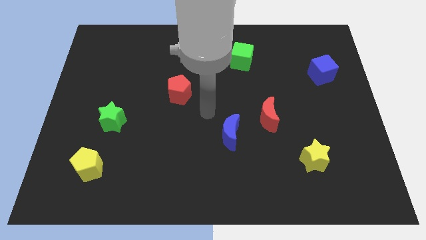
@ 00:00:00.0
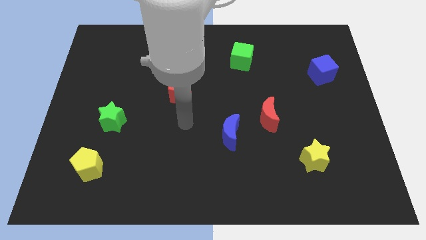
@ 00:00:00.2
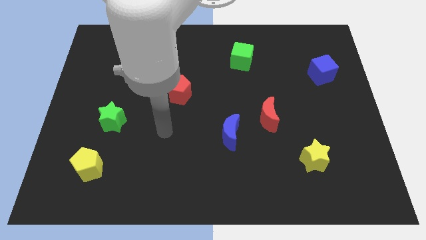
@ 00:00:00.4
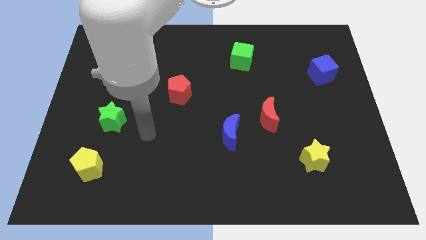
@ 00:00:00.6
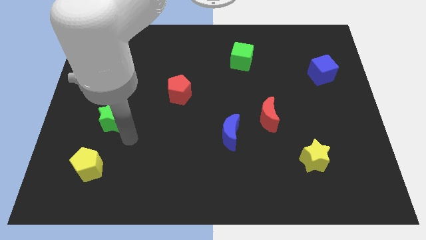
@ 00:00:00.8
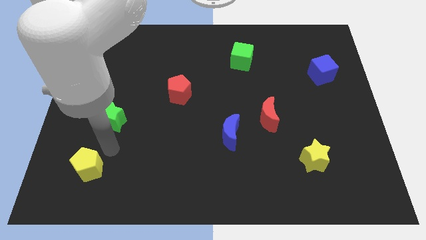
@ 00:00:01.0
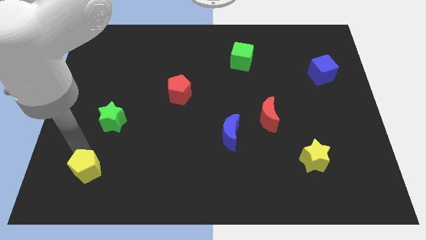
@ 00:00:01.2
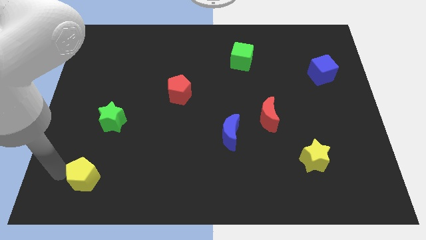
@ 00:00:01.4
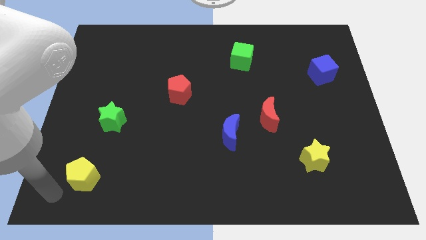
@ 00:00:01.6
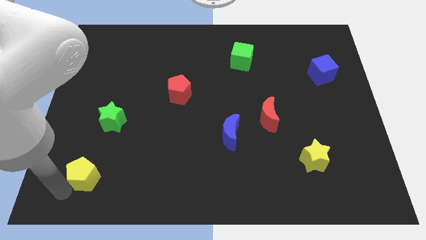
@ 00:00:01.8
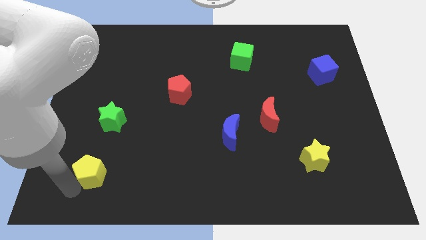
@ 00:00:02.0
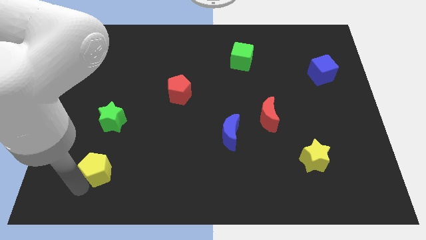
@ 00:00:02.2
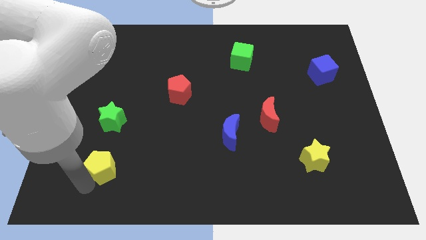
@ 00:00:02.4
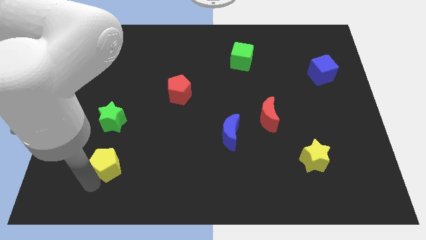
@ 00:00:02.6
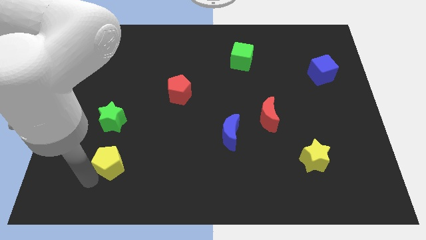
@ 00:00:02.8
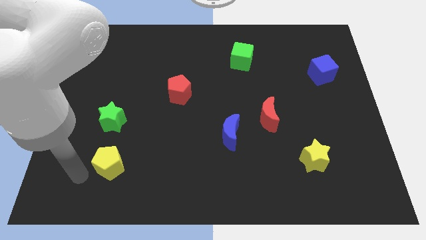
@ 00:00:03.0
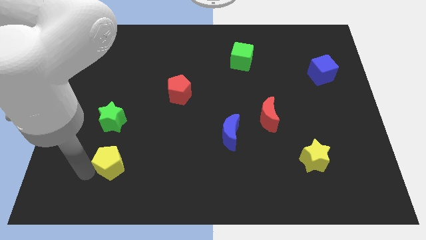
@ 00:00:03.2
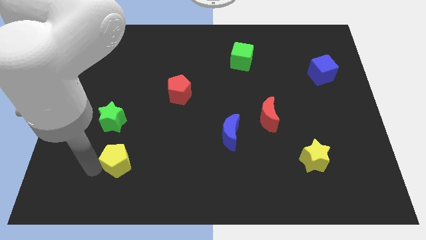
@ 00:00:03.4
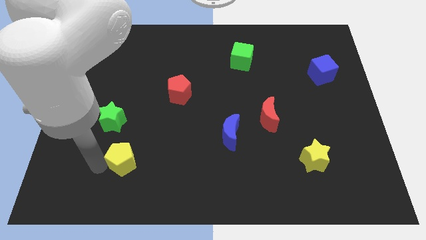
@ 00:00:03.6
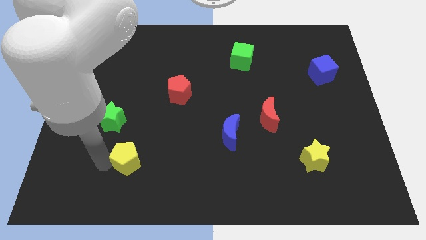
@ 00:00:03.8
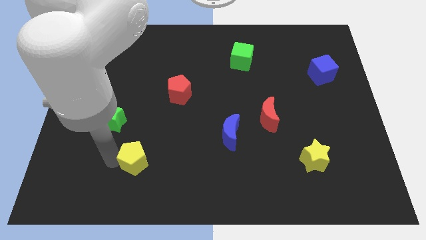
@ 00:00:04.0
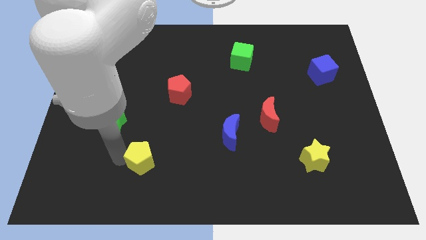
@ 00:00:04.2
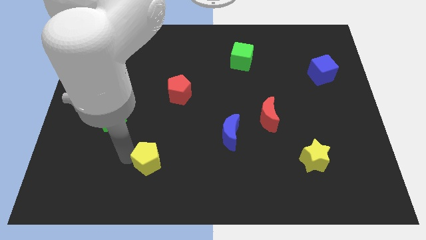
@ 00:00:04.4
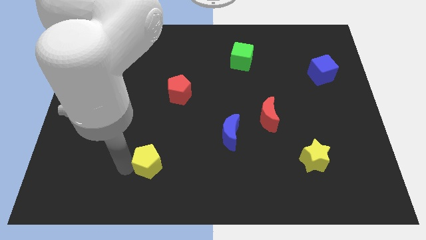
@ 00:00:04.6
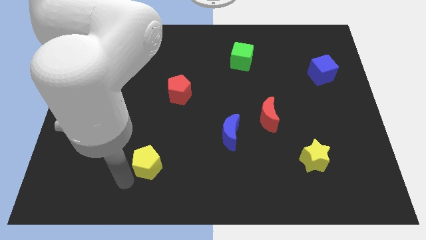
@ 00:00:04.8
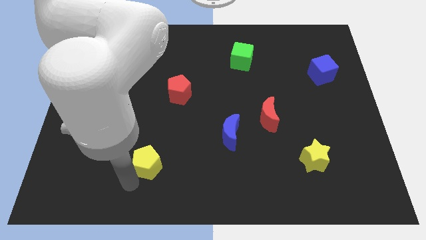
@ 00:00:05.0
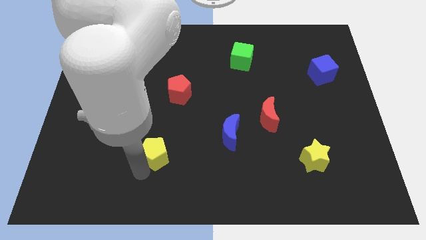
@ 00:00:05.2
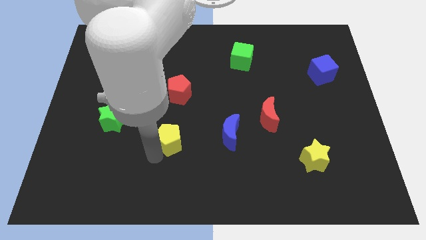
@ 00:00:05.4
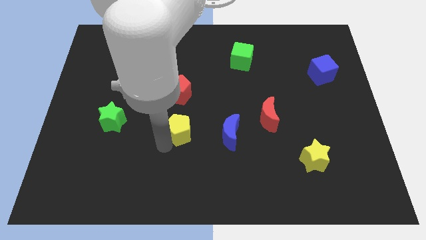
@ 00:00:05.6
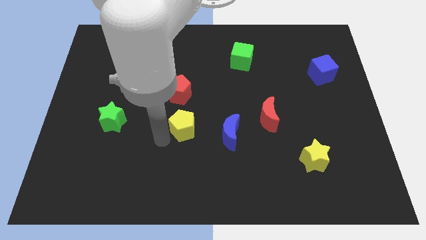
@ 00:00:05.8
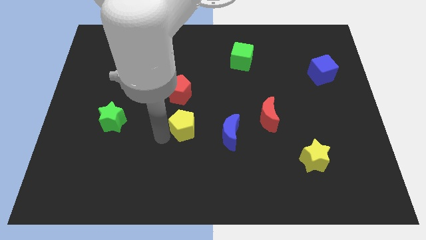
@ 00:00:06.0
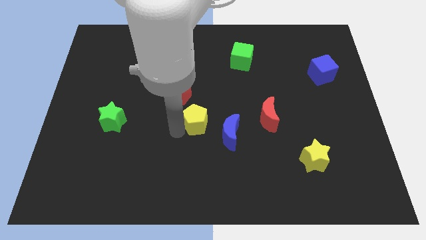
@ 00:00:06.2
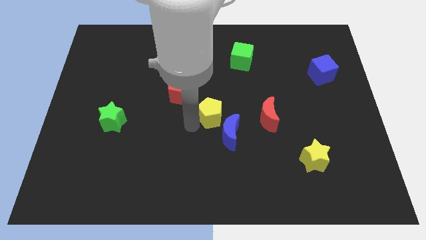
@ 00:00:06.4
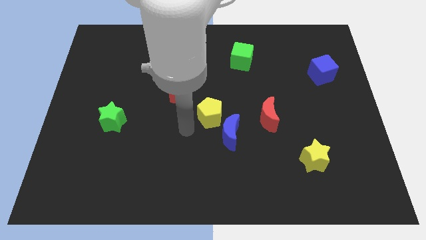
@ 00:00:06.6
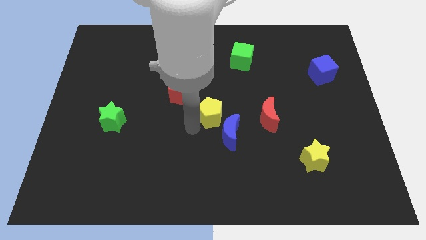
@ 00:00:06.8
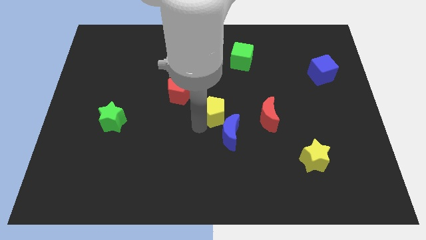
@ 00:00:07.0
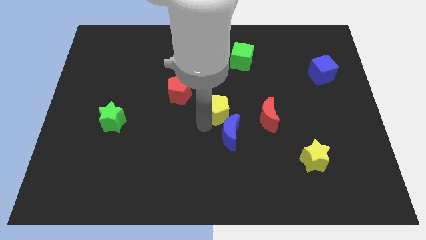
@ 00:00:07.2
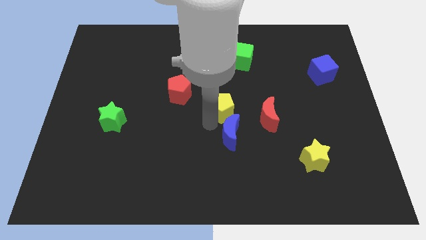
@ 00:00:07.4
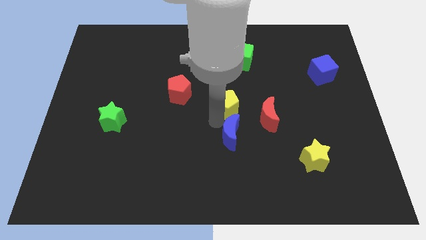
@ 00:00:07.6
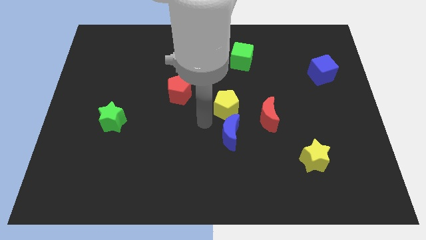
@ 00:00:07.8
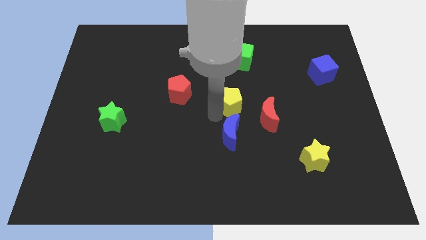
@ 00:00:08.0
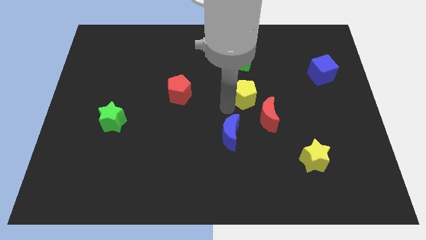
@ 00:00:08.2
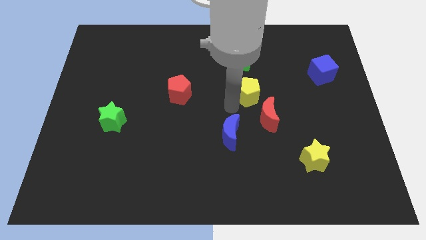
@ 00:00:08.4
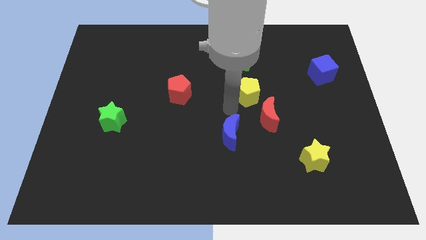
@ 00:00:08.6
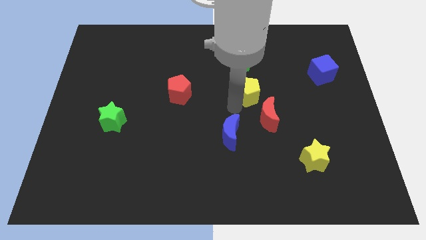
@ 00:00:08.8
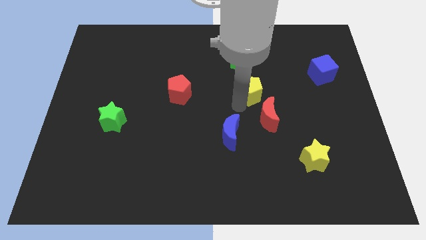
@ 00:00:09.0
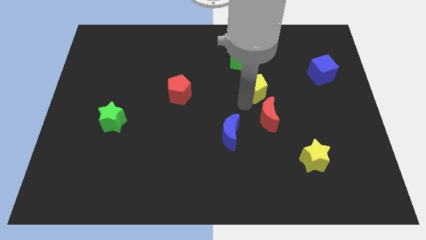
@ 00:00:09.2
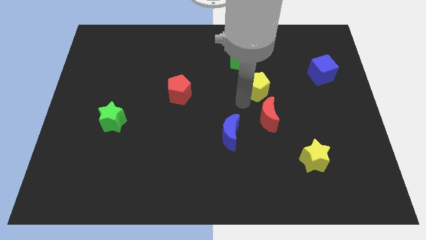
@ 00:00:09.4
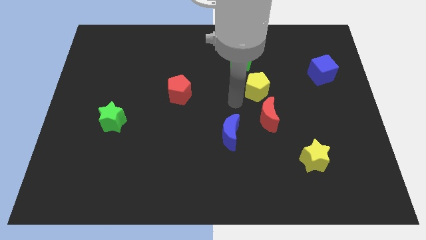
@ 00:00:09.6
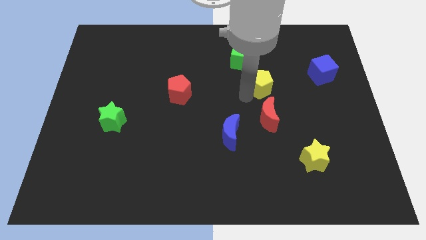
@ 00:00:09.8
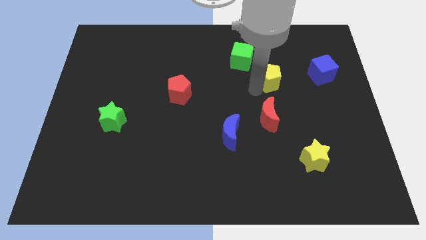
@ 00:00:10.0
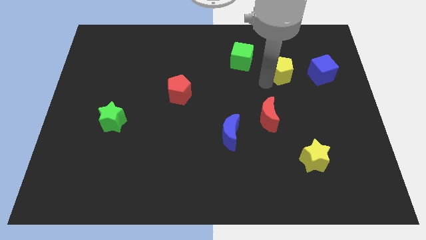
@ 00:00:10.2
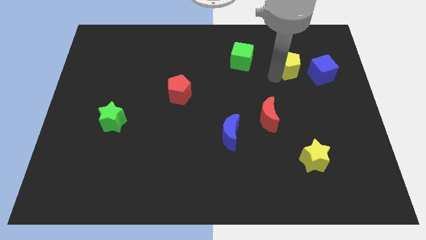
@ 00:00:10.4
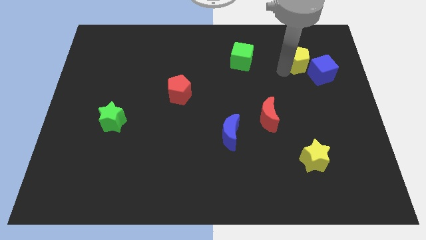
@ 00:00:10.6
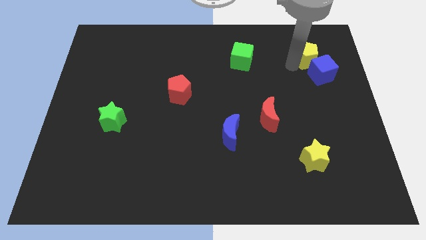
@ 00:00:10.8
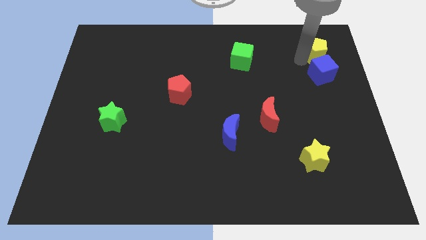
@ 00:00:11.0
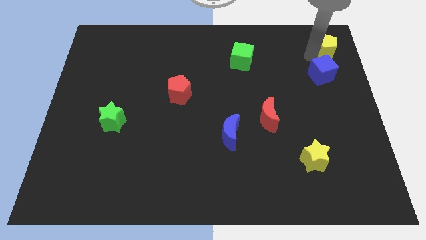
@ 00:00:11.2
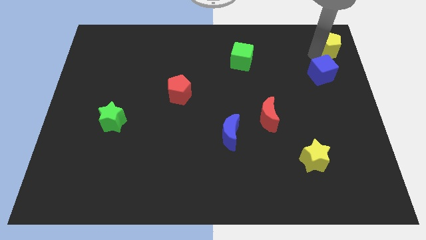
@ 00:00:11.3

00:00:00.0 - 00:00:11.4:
move the yellow pentagon to the top right

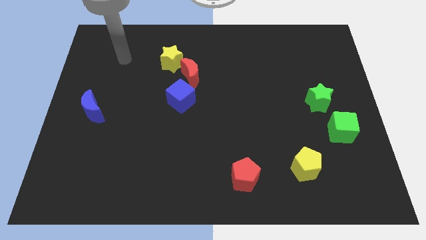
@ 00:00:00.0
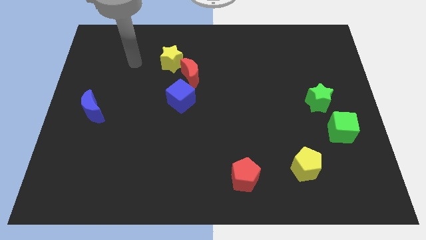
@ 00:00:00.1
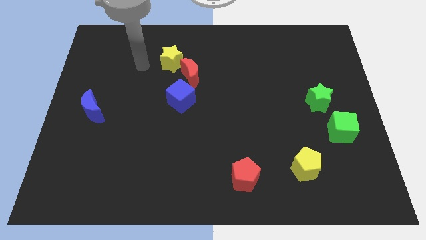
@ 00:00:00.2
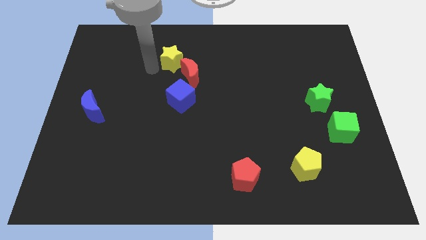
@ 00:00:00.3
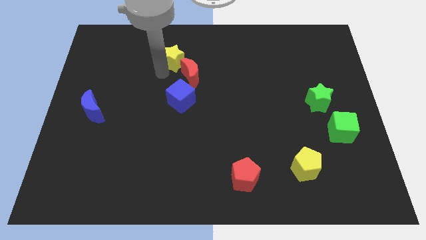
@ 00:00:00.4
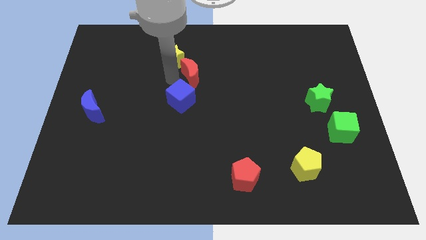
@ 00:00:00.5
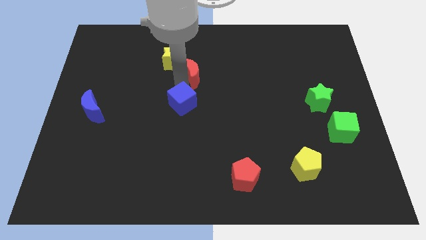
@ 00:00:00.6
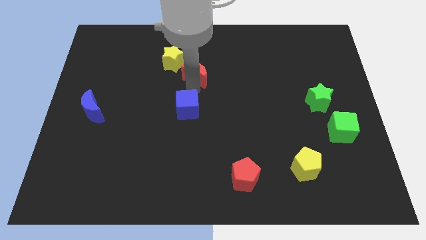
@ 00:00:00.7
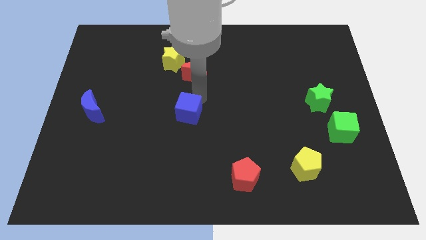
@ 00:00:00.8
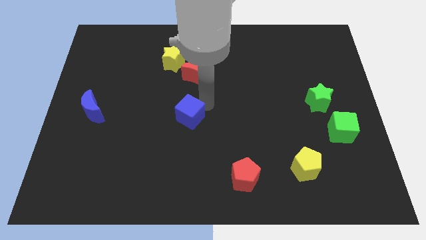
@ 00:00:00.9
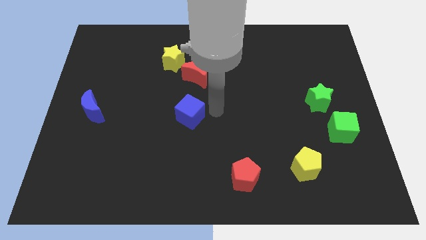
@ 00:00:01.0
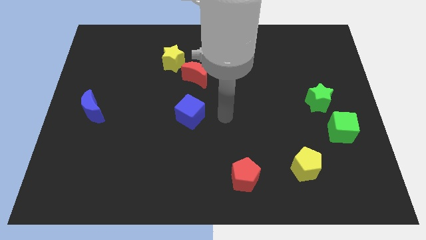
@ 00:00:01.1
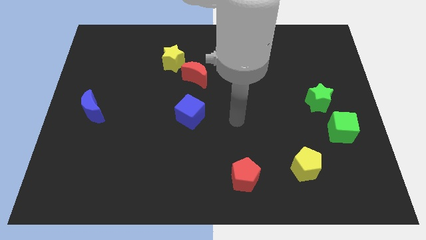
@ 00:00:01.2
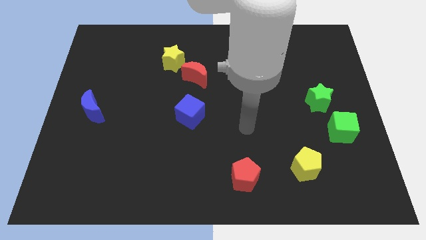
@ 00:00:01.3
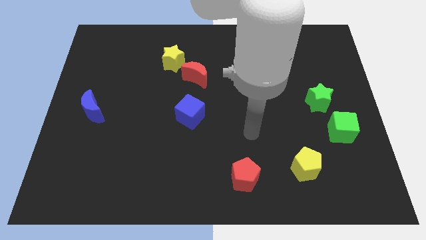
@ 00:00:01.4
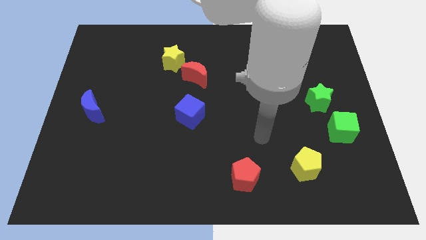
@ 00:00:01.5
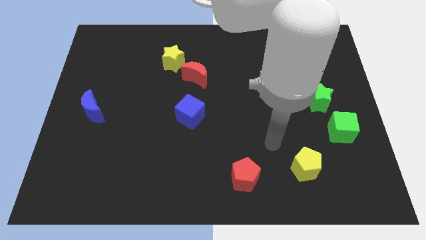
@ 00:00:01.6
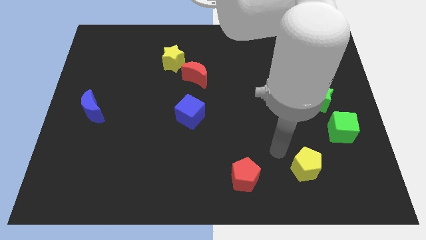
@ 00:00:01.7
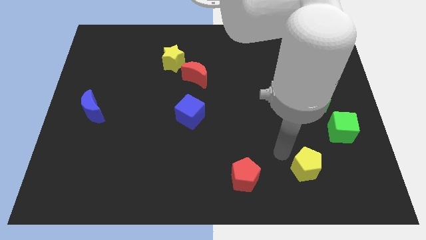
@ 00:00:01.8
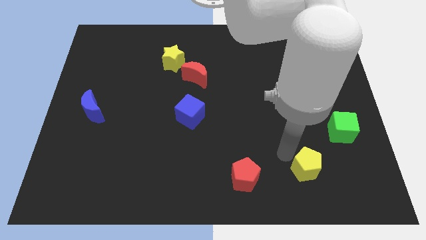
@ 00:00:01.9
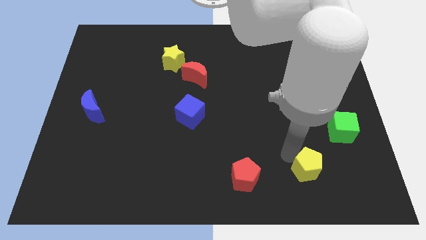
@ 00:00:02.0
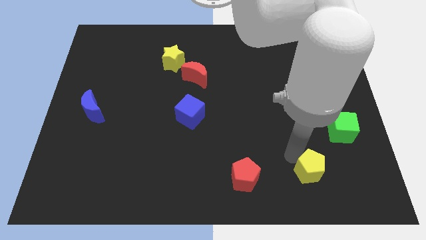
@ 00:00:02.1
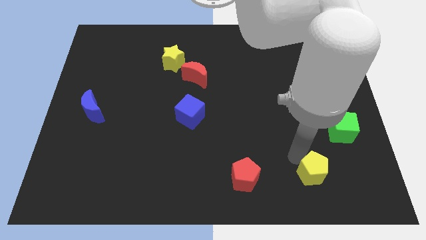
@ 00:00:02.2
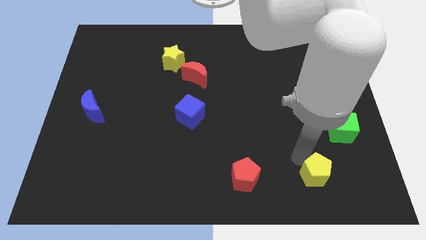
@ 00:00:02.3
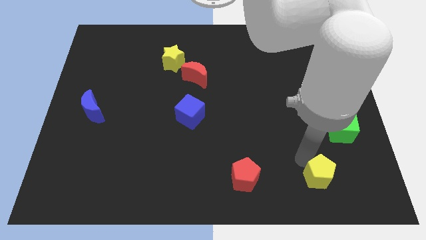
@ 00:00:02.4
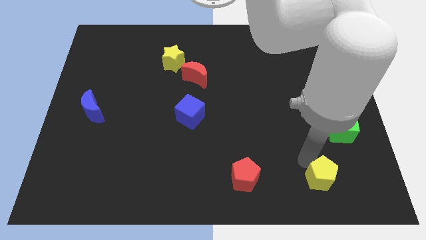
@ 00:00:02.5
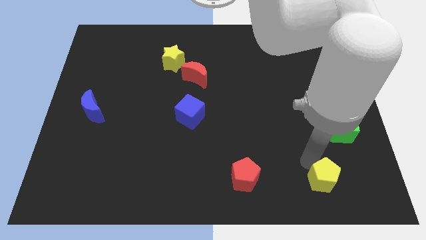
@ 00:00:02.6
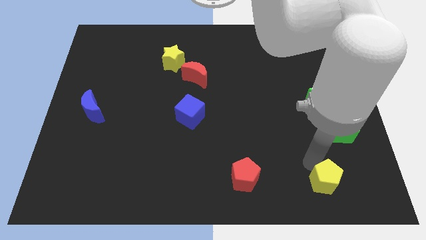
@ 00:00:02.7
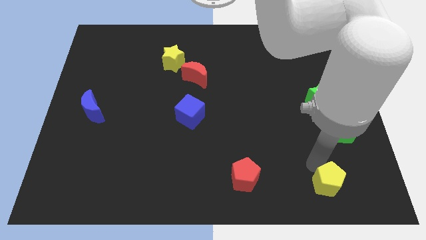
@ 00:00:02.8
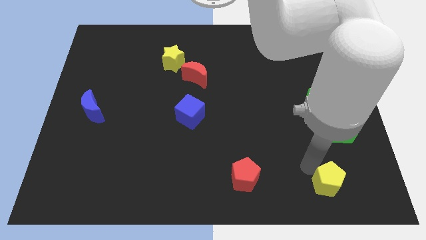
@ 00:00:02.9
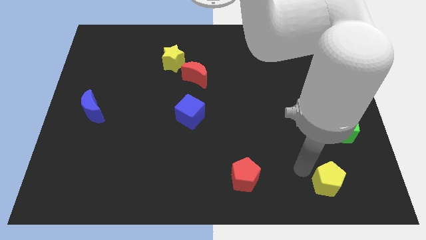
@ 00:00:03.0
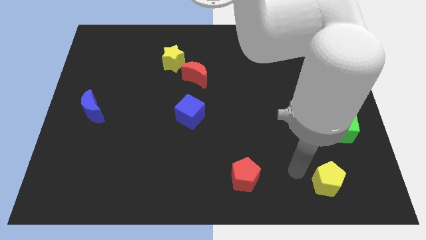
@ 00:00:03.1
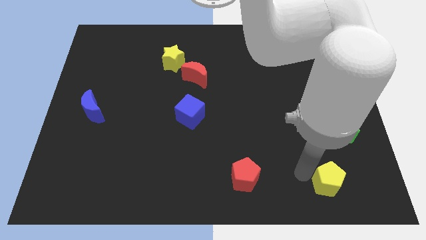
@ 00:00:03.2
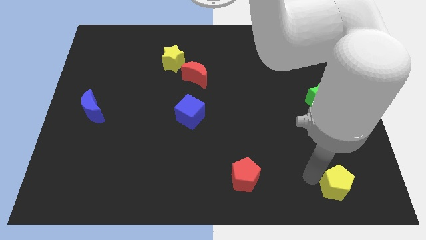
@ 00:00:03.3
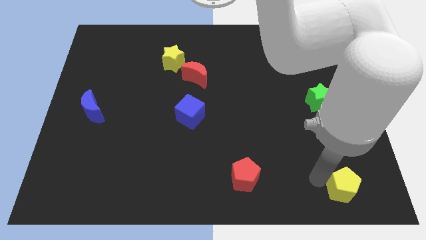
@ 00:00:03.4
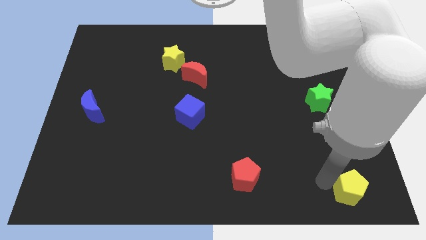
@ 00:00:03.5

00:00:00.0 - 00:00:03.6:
put the yellow pentagon to the bottom right corner
